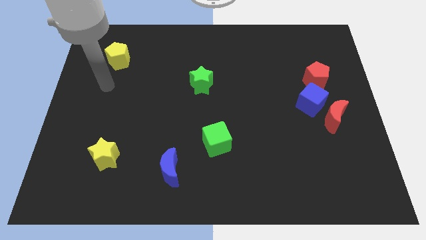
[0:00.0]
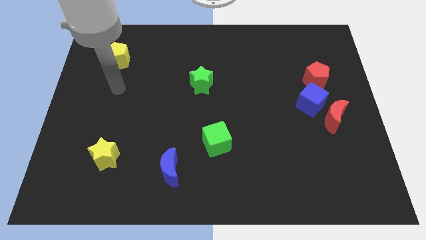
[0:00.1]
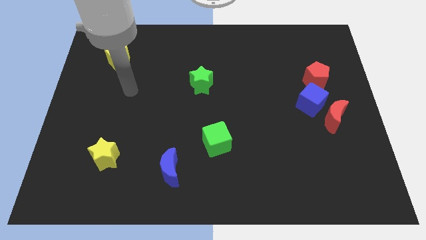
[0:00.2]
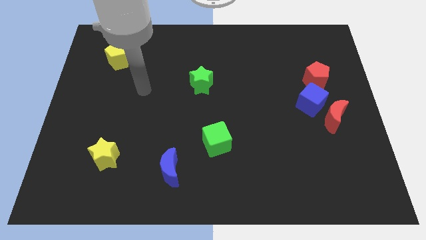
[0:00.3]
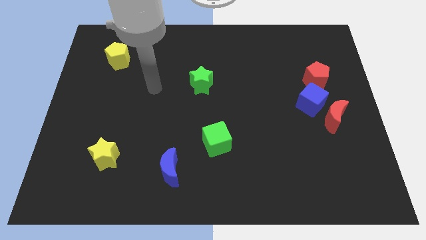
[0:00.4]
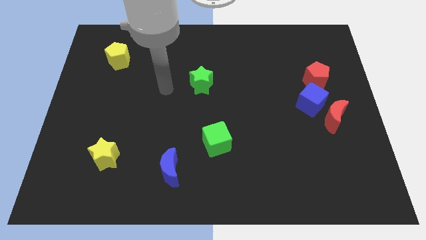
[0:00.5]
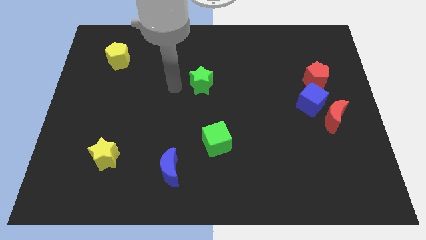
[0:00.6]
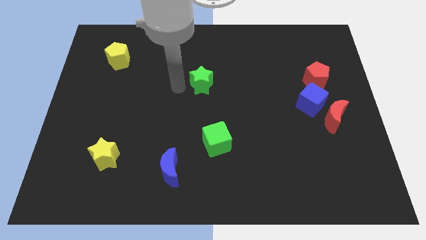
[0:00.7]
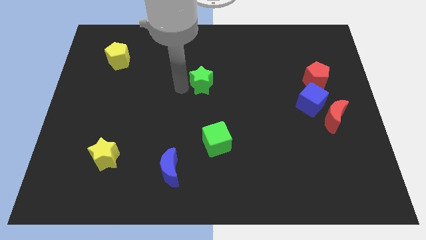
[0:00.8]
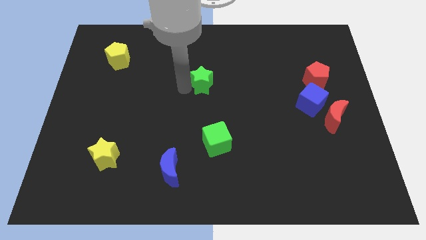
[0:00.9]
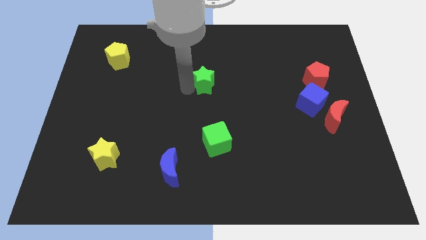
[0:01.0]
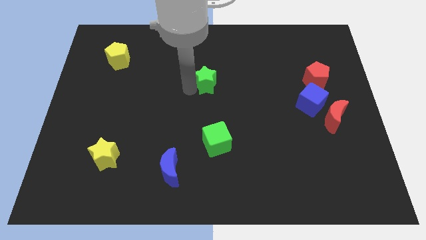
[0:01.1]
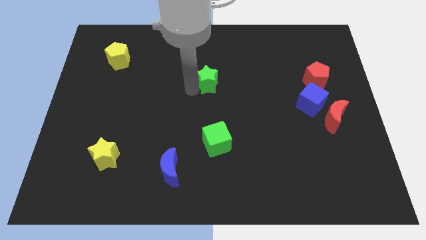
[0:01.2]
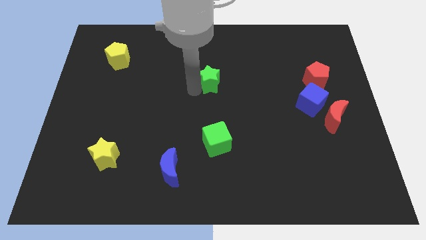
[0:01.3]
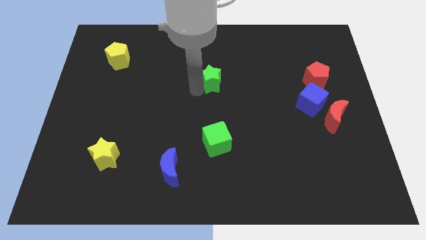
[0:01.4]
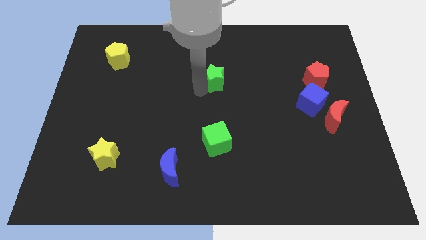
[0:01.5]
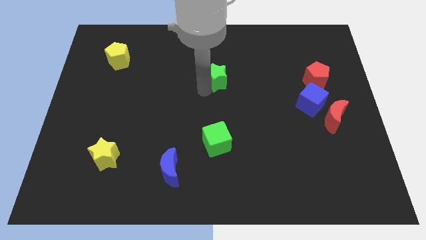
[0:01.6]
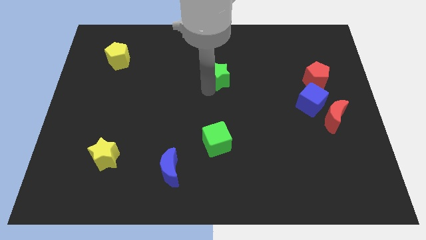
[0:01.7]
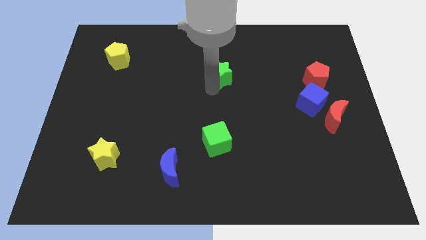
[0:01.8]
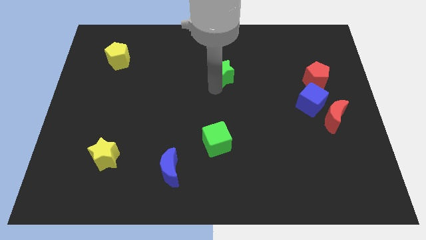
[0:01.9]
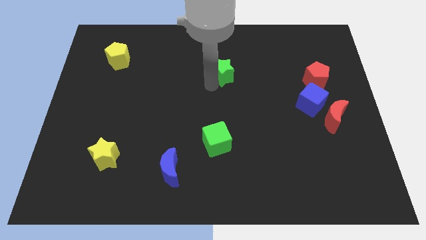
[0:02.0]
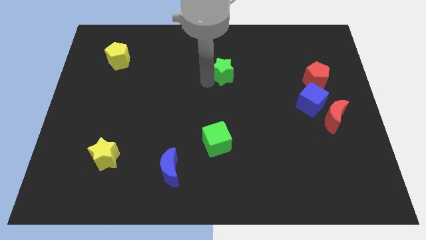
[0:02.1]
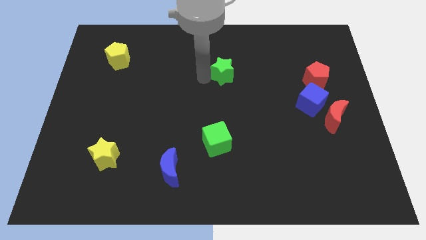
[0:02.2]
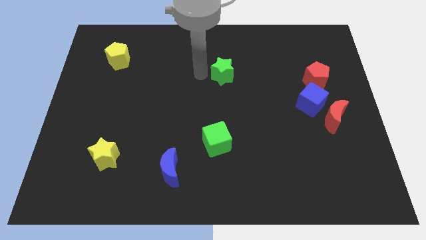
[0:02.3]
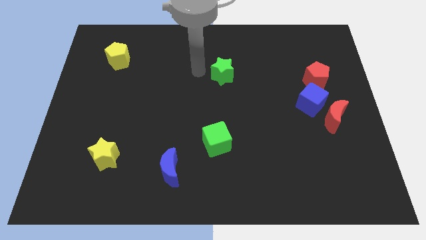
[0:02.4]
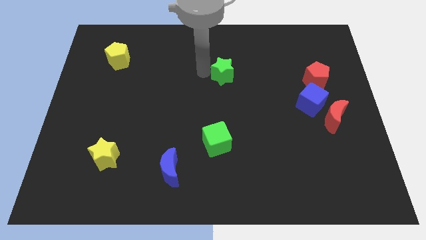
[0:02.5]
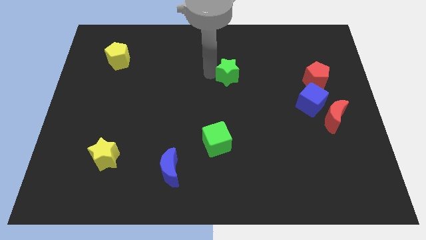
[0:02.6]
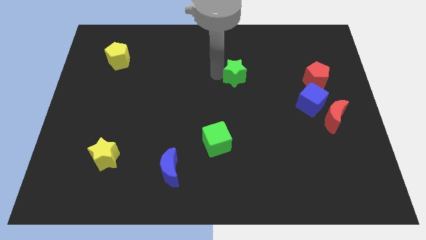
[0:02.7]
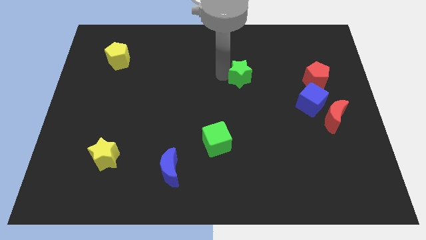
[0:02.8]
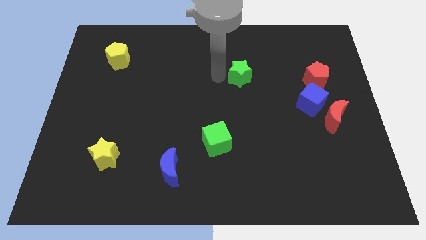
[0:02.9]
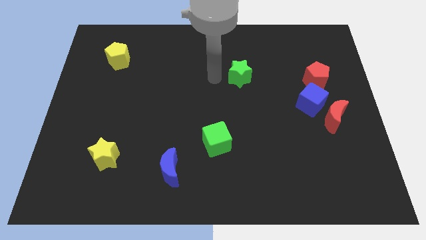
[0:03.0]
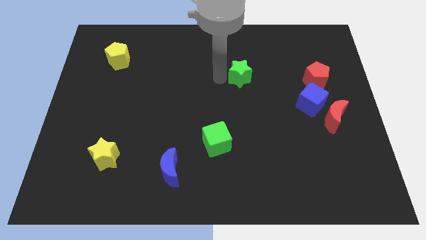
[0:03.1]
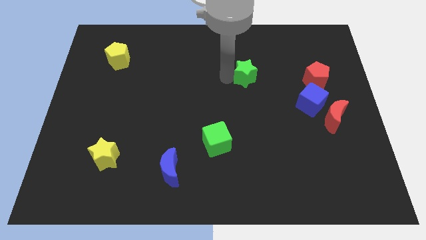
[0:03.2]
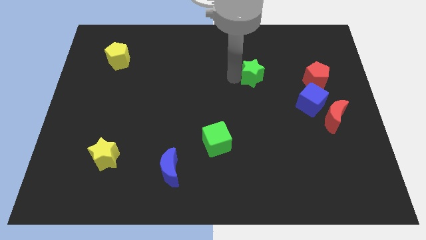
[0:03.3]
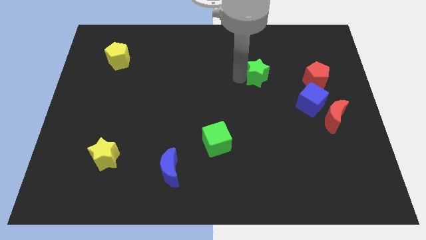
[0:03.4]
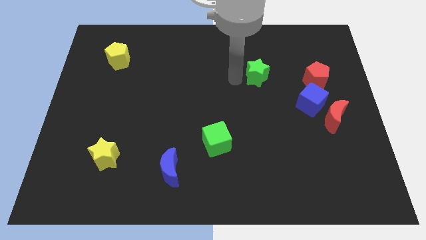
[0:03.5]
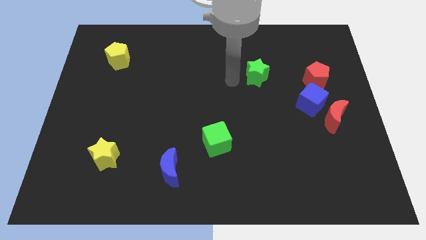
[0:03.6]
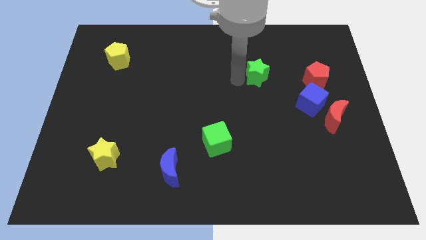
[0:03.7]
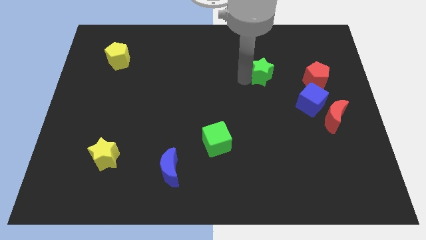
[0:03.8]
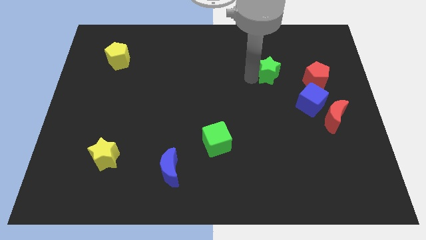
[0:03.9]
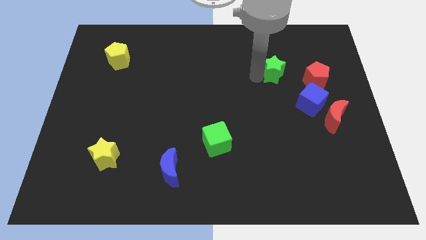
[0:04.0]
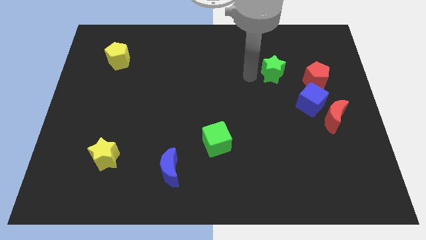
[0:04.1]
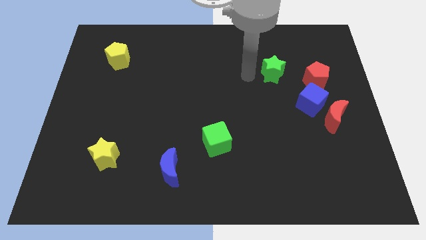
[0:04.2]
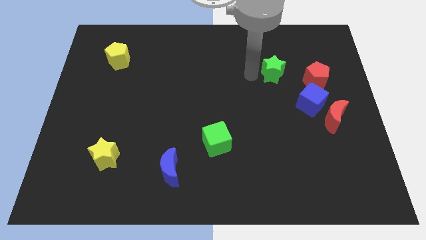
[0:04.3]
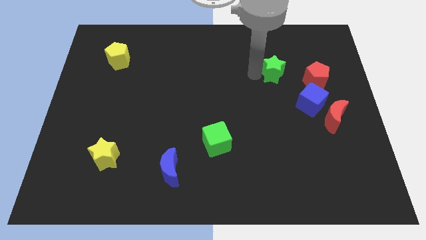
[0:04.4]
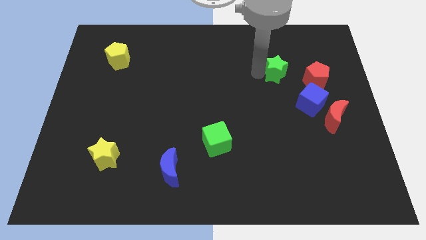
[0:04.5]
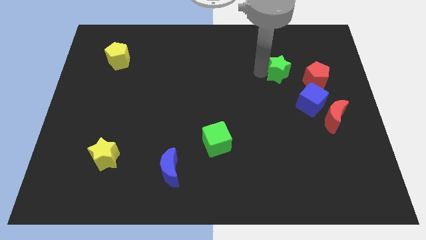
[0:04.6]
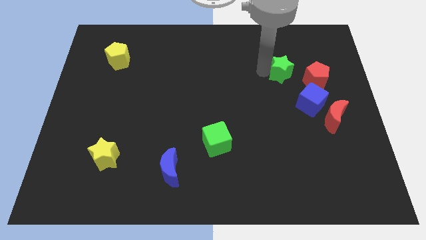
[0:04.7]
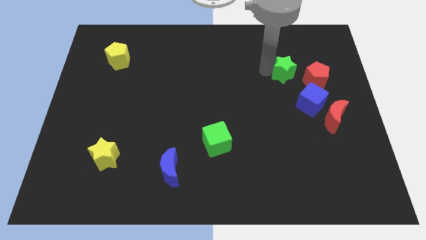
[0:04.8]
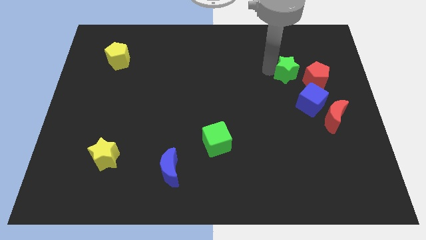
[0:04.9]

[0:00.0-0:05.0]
push the green star to the top side of the blue cube

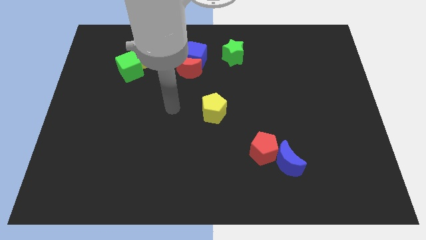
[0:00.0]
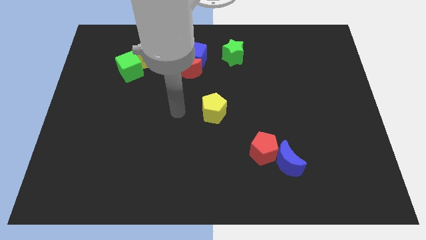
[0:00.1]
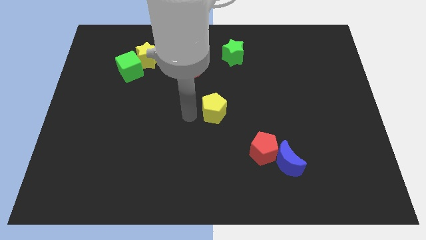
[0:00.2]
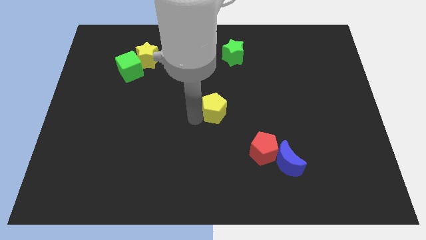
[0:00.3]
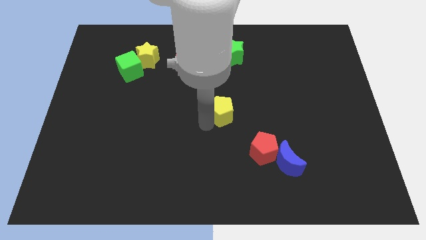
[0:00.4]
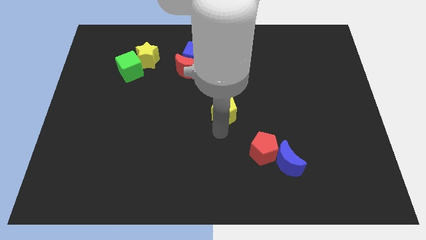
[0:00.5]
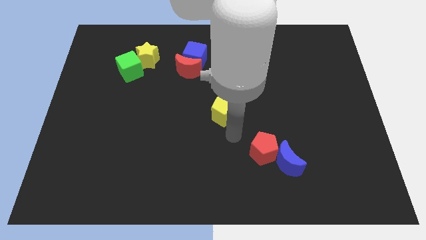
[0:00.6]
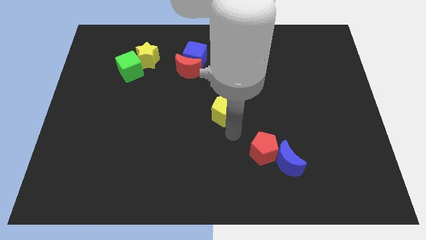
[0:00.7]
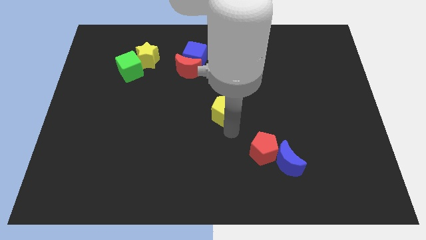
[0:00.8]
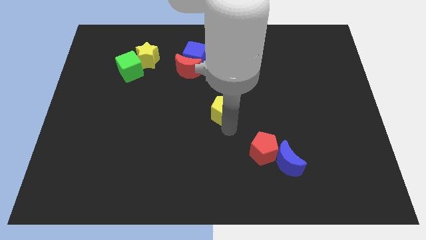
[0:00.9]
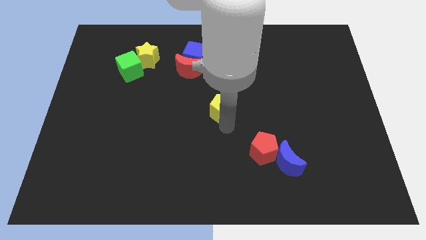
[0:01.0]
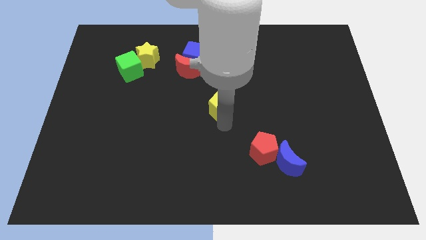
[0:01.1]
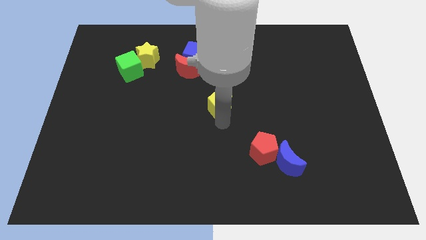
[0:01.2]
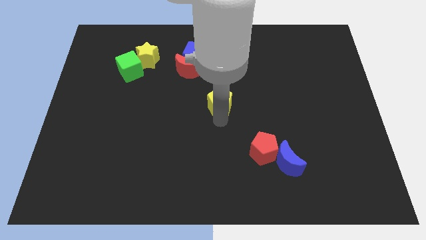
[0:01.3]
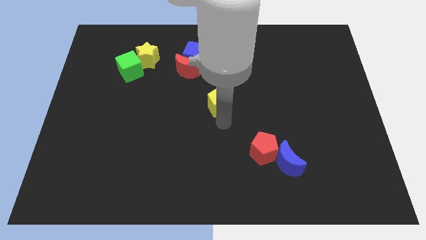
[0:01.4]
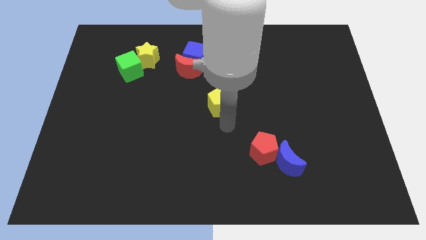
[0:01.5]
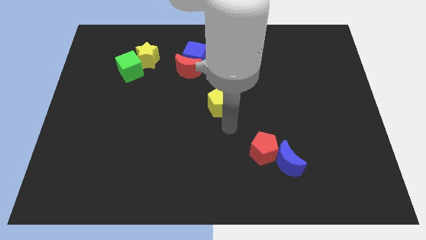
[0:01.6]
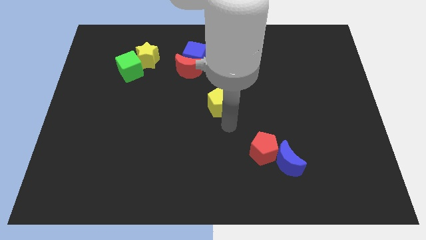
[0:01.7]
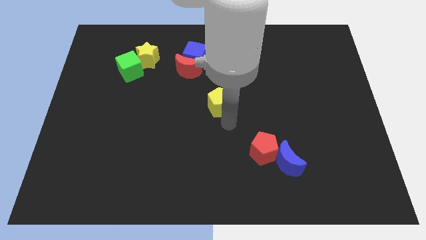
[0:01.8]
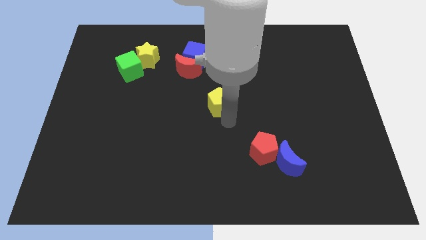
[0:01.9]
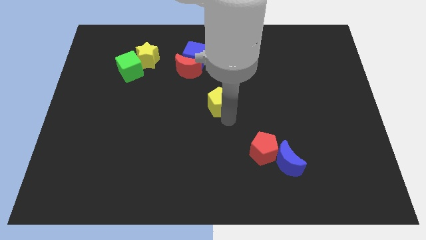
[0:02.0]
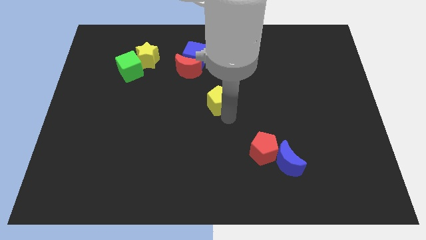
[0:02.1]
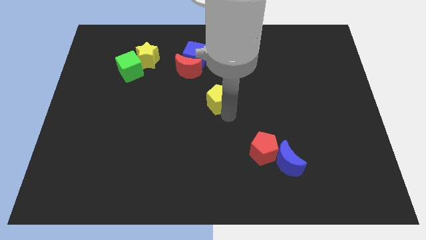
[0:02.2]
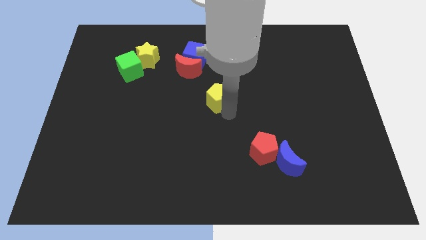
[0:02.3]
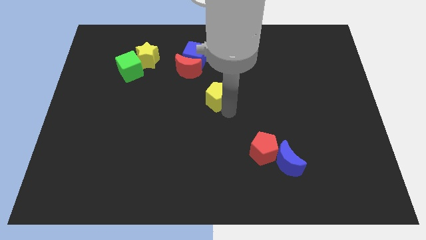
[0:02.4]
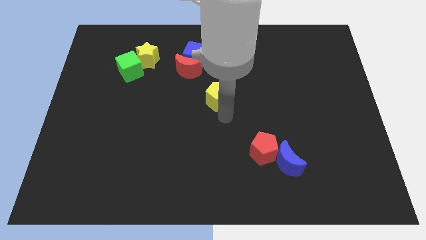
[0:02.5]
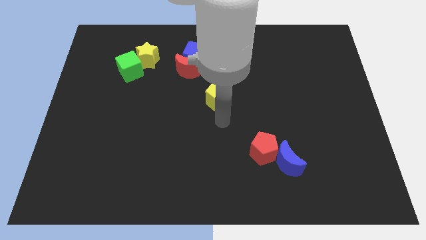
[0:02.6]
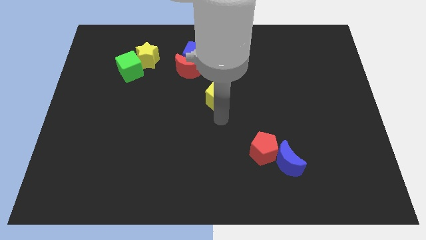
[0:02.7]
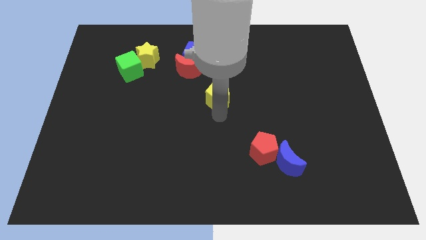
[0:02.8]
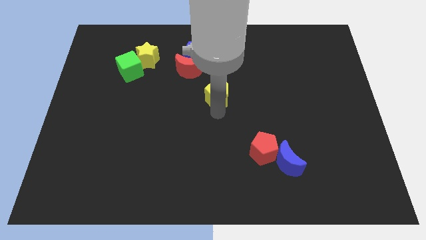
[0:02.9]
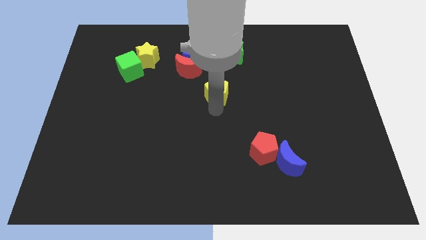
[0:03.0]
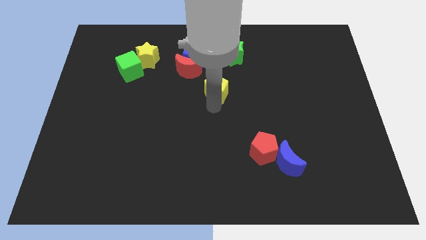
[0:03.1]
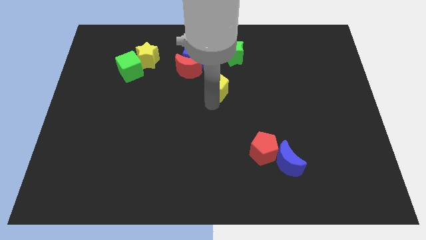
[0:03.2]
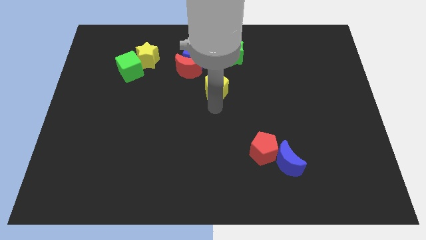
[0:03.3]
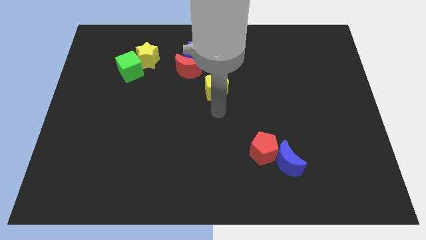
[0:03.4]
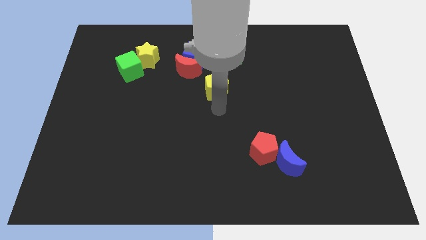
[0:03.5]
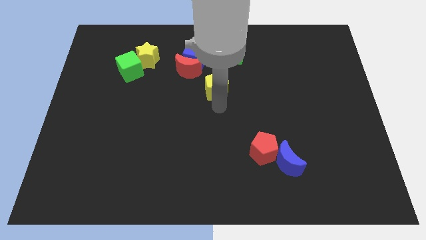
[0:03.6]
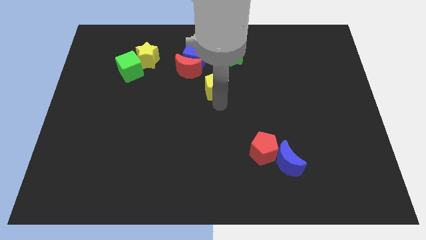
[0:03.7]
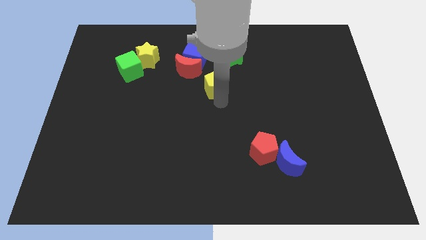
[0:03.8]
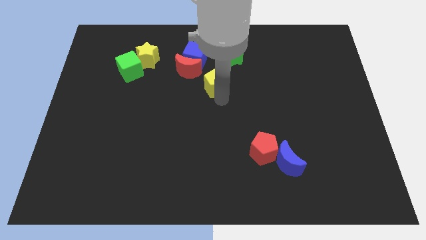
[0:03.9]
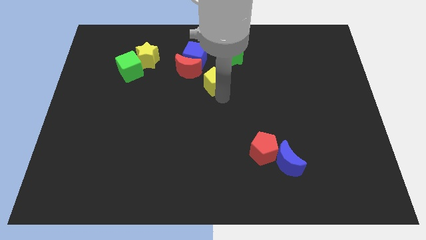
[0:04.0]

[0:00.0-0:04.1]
slide the yellow pentagon to the bottom left of the green star
